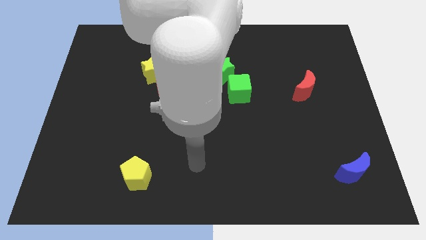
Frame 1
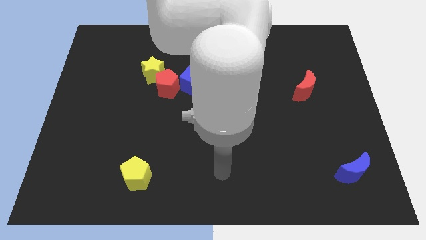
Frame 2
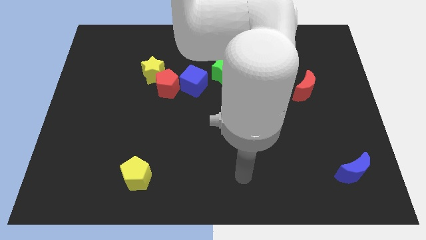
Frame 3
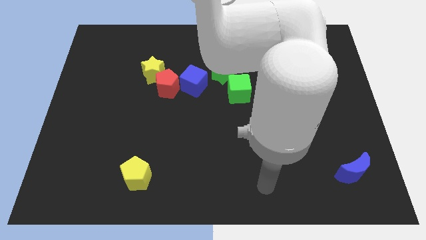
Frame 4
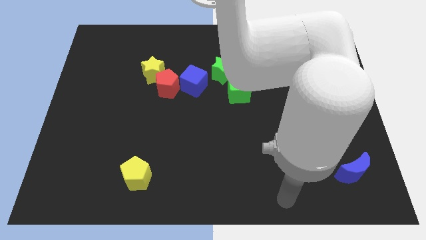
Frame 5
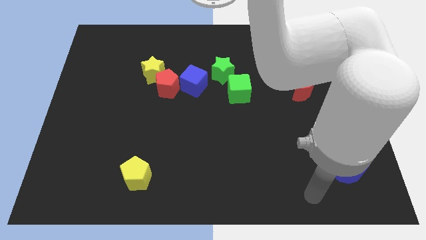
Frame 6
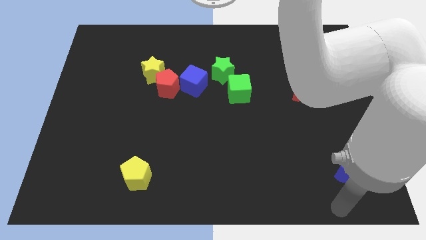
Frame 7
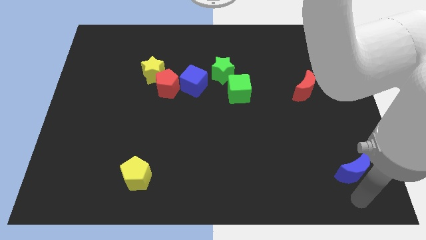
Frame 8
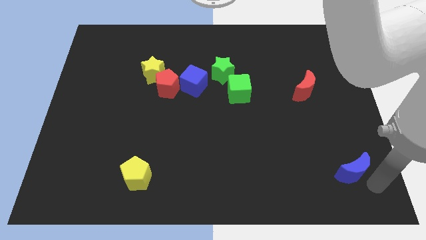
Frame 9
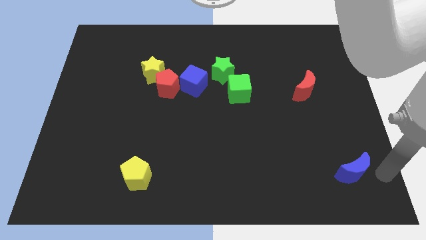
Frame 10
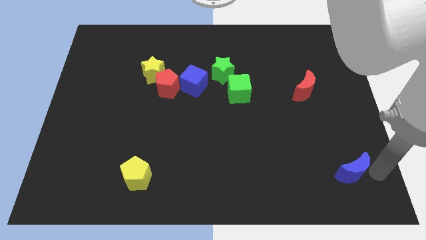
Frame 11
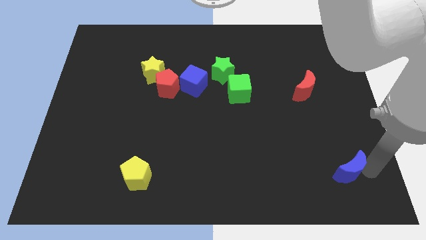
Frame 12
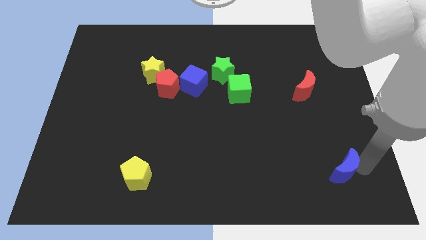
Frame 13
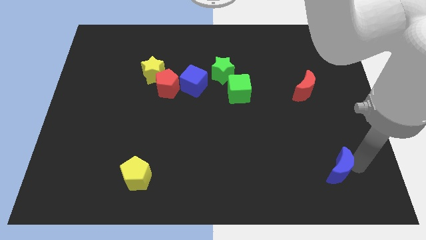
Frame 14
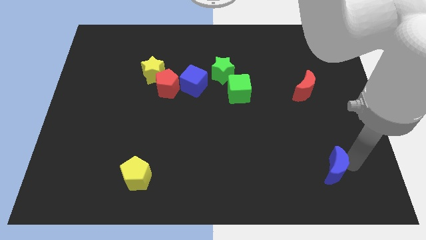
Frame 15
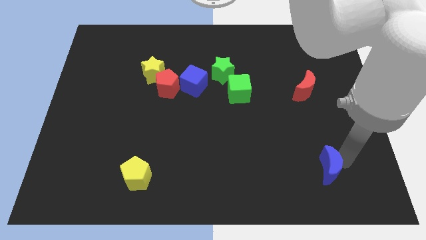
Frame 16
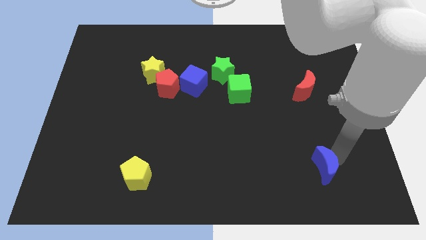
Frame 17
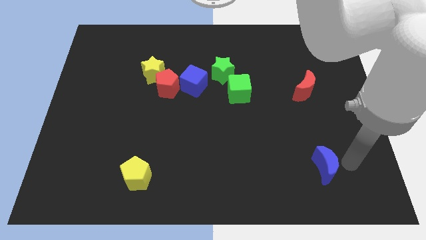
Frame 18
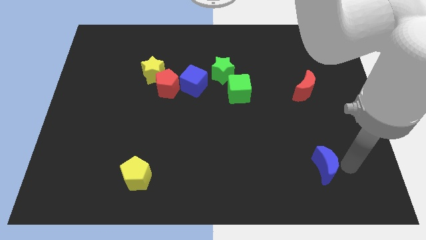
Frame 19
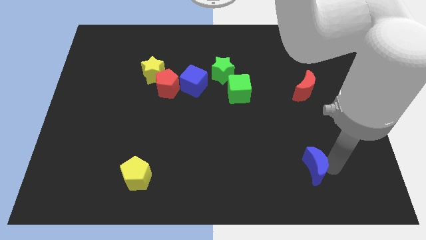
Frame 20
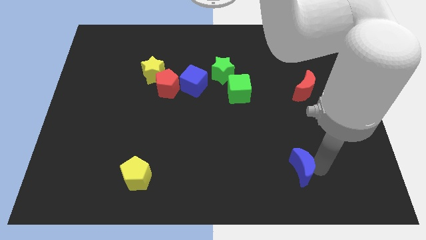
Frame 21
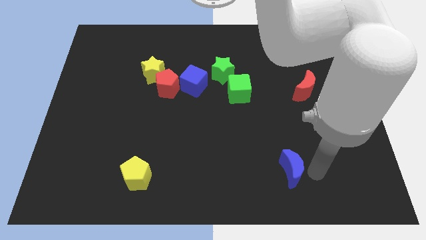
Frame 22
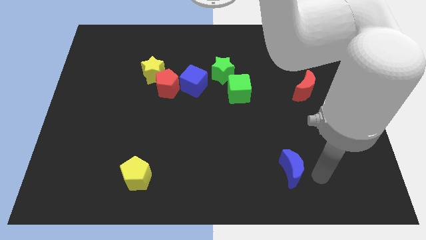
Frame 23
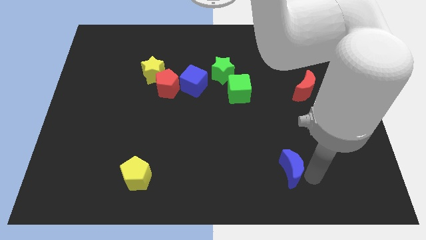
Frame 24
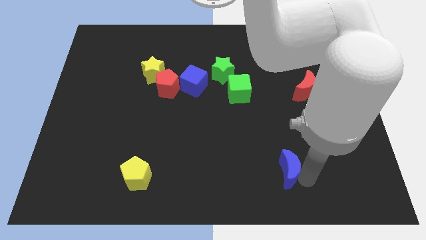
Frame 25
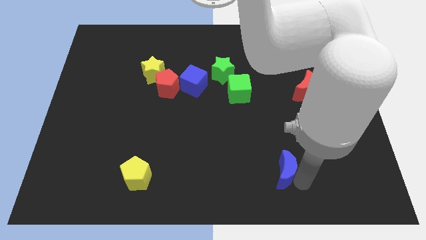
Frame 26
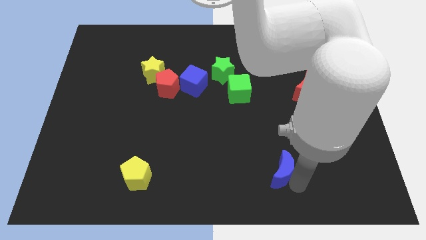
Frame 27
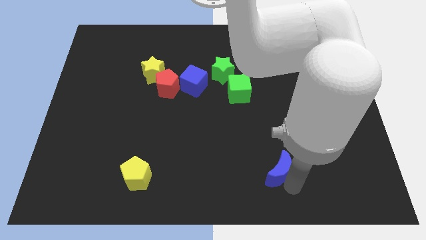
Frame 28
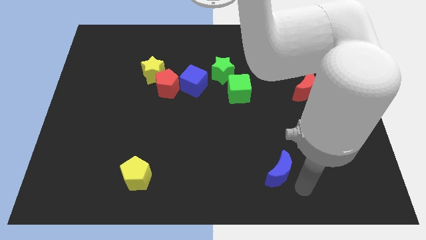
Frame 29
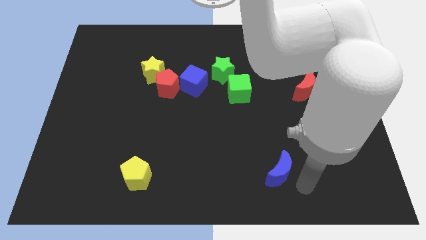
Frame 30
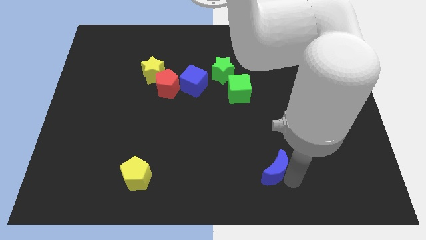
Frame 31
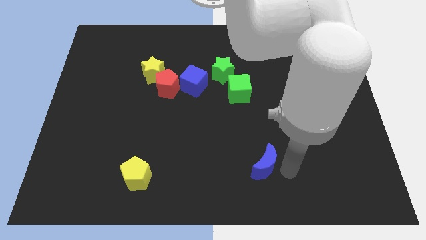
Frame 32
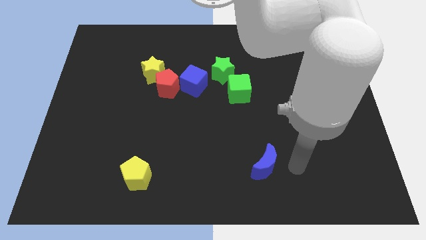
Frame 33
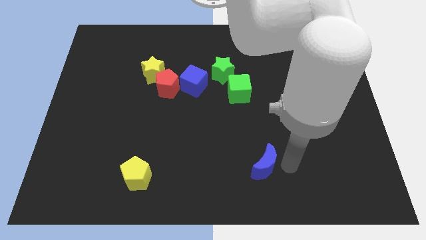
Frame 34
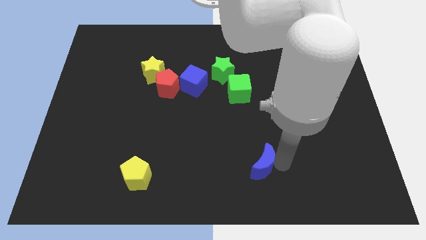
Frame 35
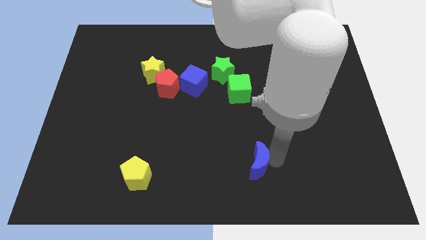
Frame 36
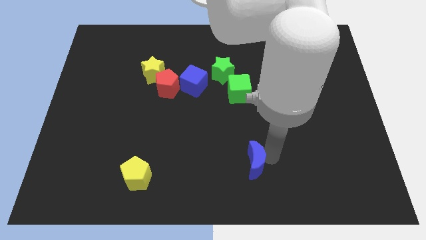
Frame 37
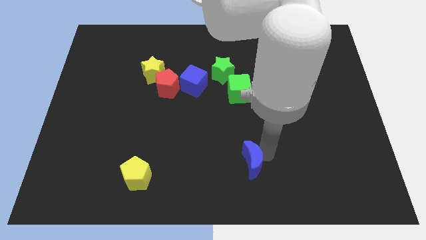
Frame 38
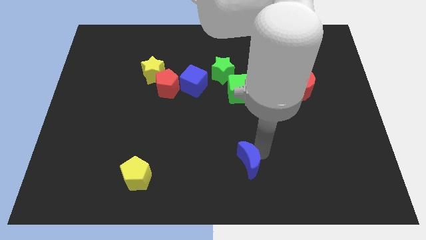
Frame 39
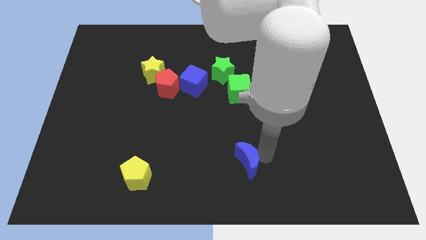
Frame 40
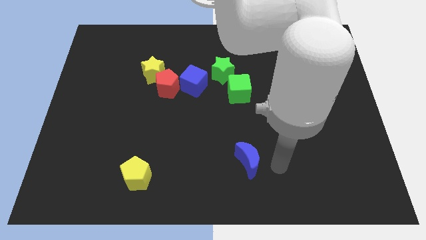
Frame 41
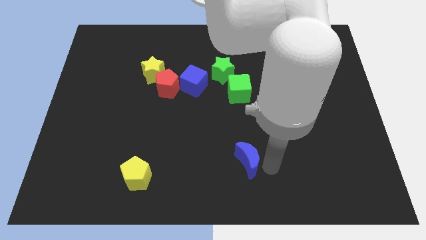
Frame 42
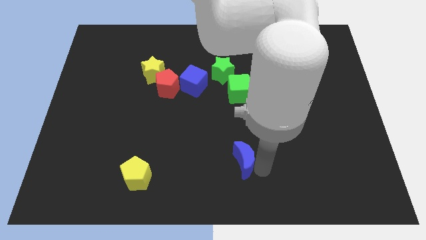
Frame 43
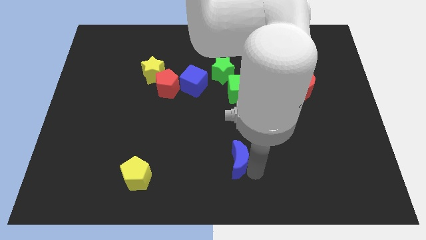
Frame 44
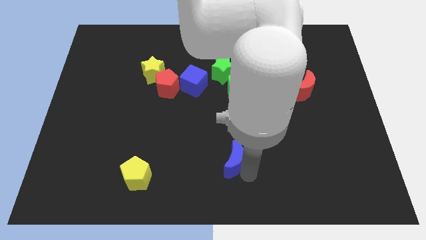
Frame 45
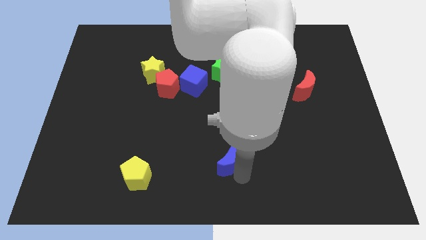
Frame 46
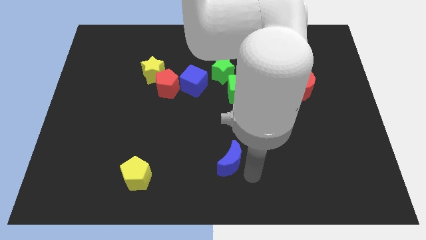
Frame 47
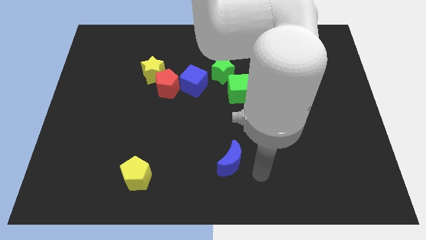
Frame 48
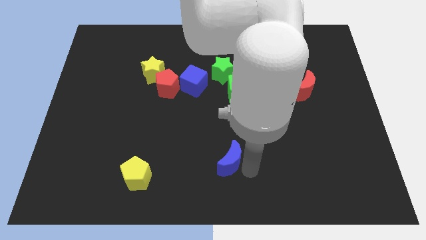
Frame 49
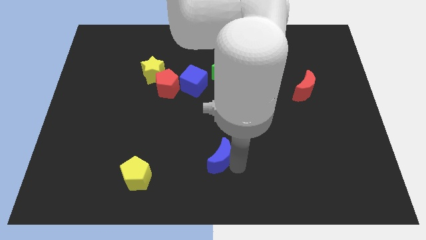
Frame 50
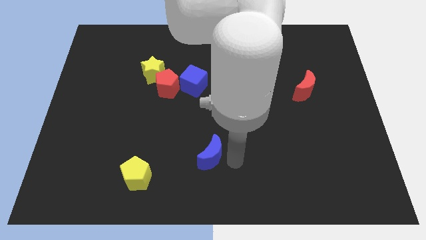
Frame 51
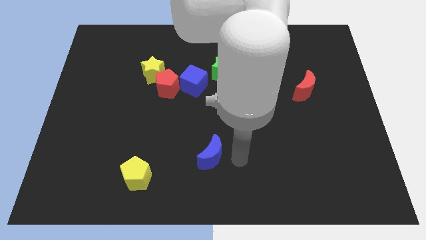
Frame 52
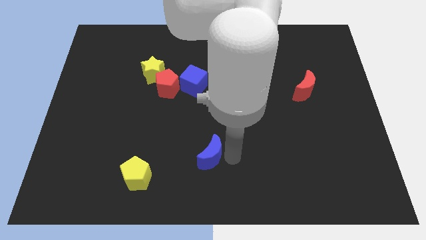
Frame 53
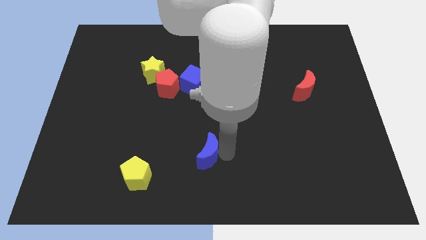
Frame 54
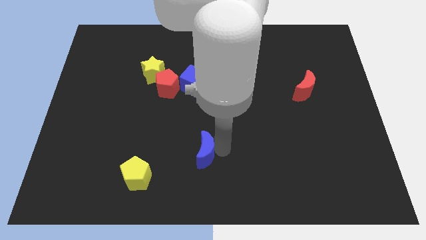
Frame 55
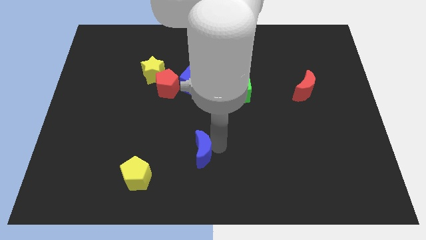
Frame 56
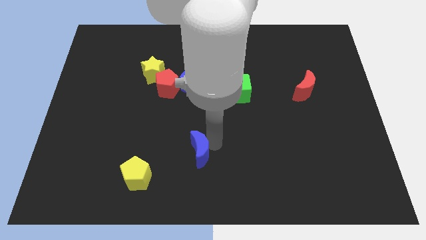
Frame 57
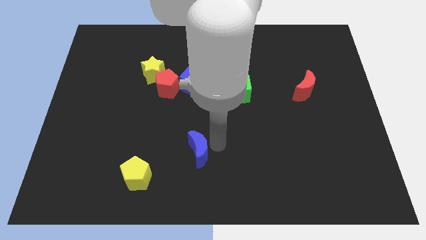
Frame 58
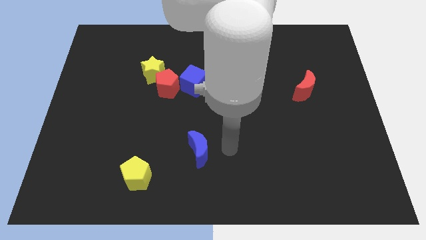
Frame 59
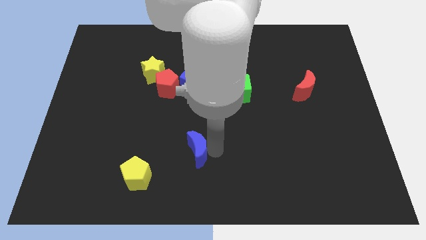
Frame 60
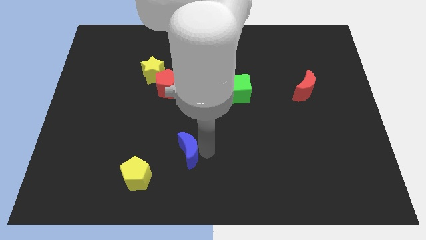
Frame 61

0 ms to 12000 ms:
move the blue moon diagonally up and to the right of the yellow pentagon

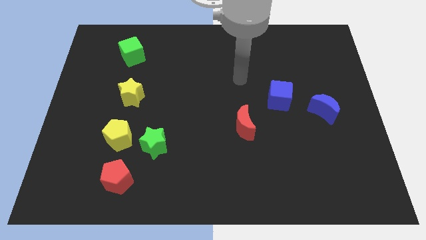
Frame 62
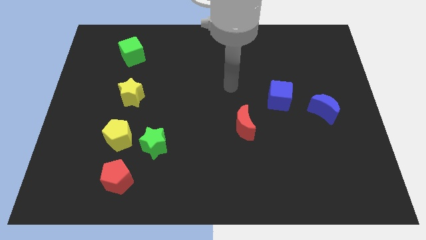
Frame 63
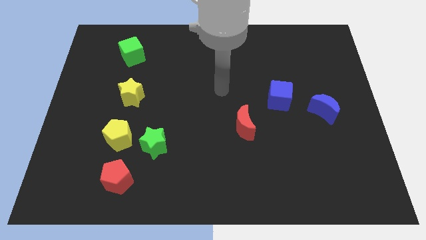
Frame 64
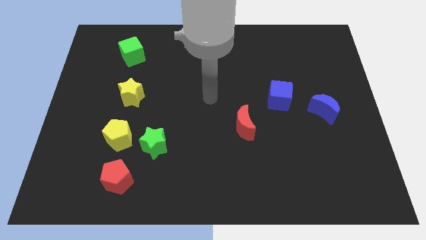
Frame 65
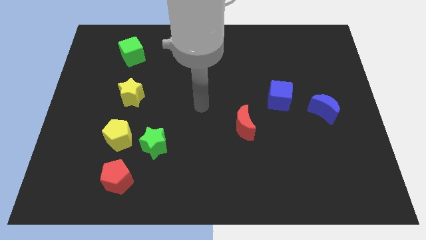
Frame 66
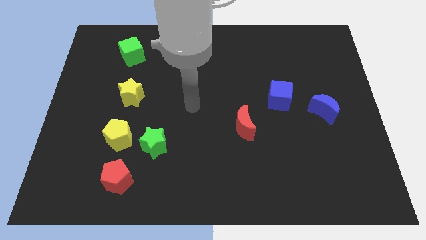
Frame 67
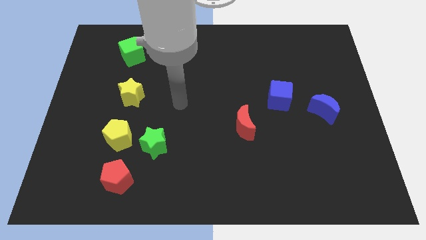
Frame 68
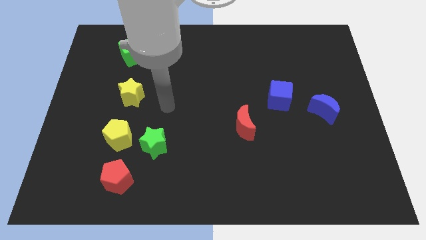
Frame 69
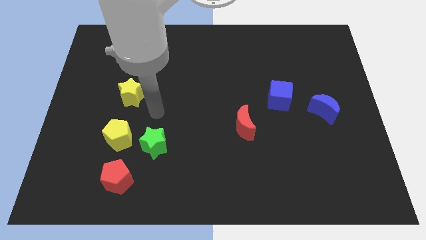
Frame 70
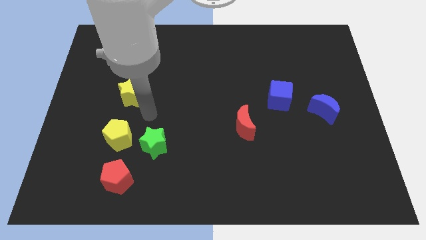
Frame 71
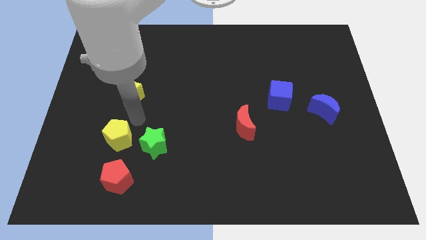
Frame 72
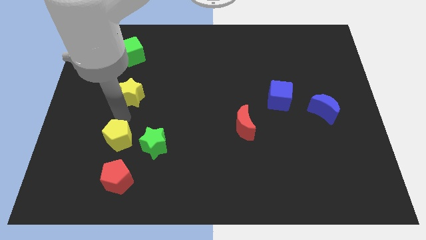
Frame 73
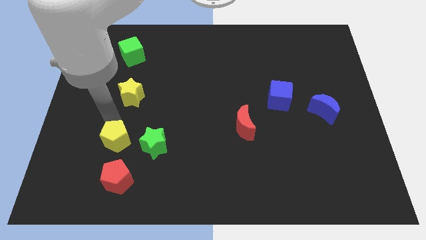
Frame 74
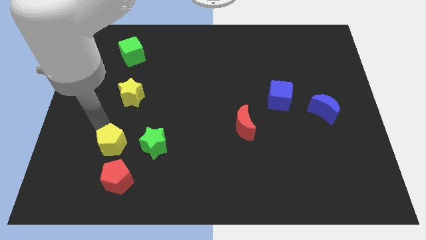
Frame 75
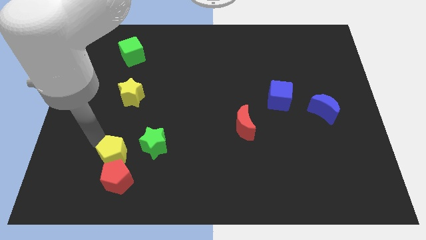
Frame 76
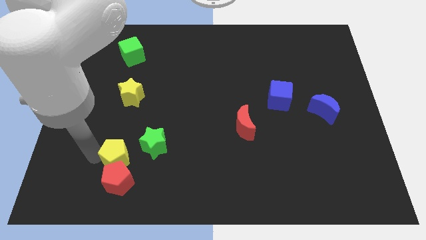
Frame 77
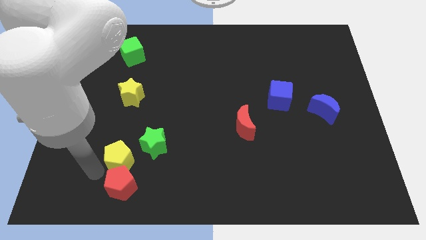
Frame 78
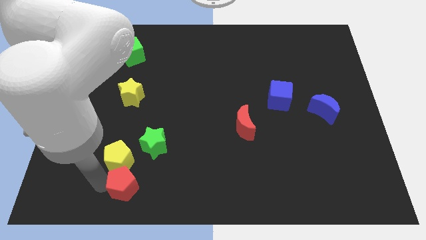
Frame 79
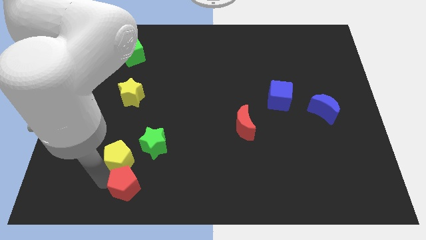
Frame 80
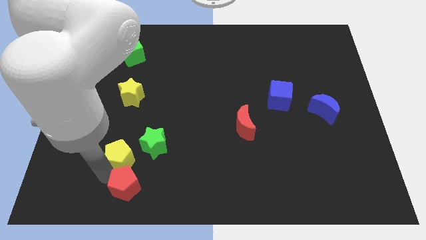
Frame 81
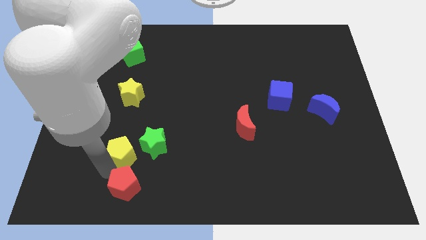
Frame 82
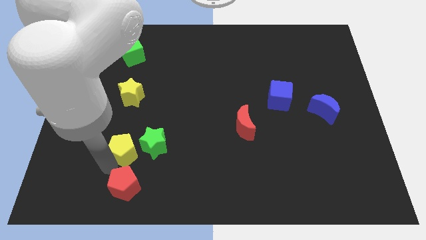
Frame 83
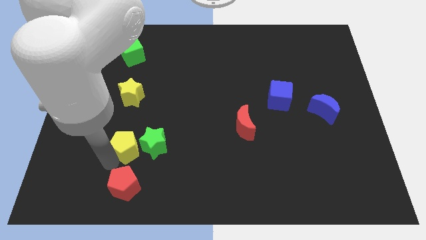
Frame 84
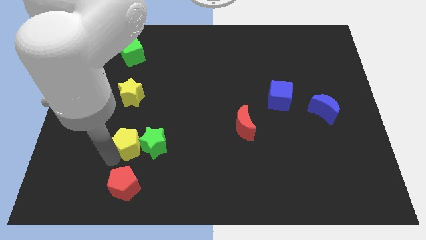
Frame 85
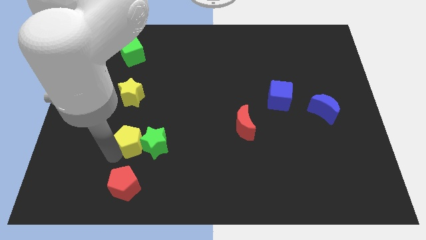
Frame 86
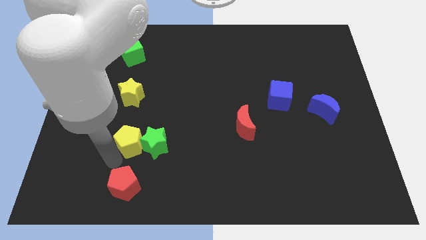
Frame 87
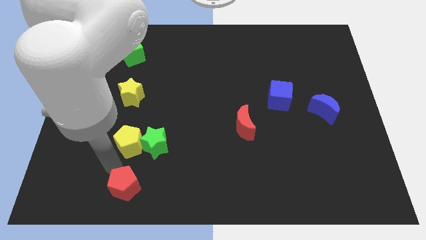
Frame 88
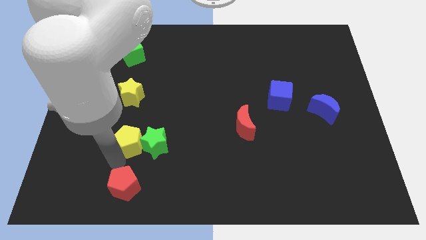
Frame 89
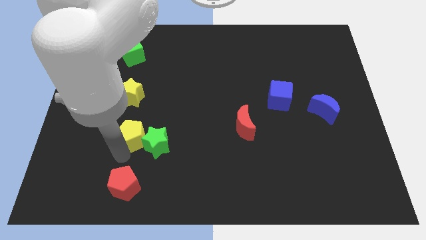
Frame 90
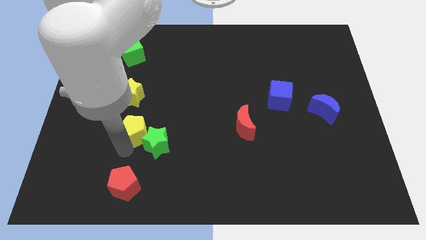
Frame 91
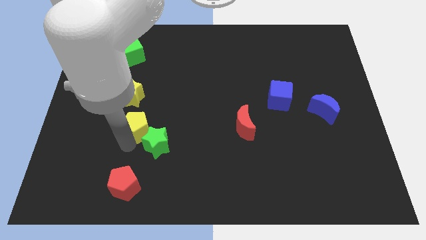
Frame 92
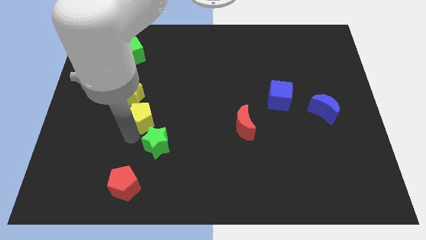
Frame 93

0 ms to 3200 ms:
slide the yellow pentagon to the top side of the green star
